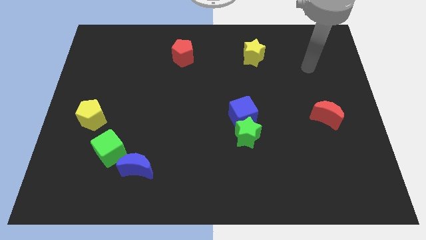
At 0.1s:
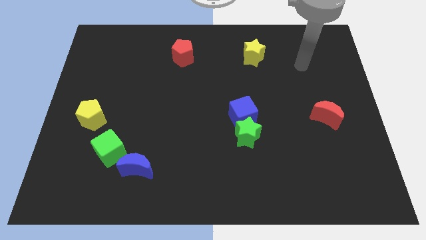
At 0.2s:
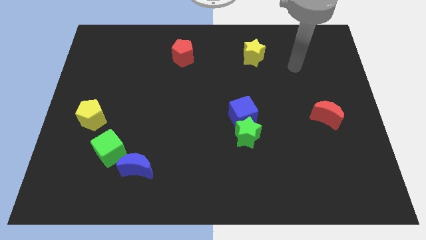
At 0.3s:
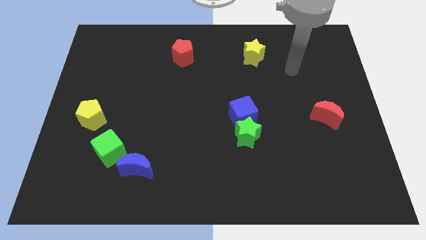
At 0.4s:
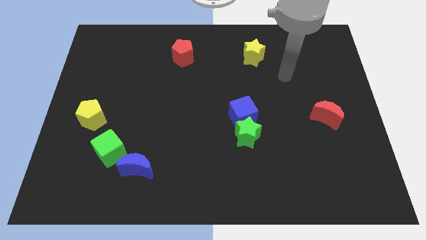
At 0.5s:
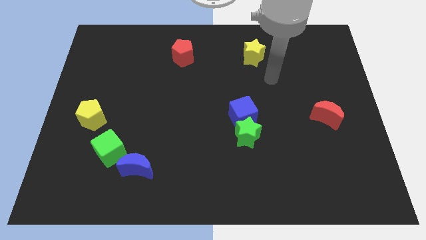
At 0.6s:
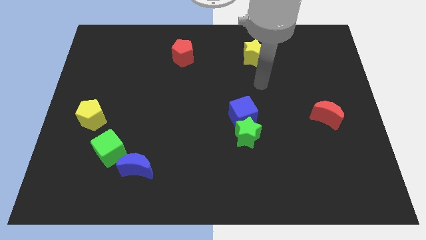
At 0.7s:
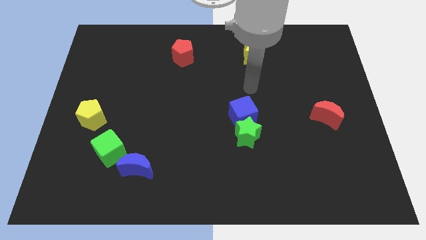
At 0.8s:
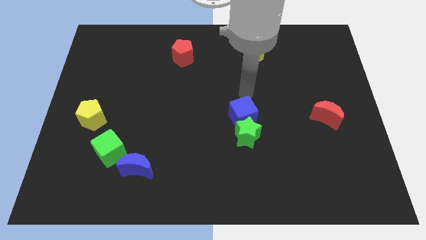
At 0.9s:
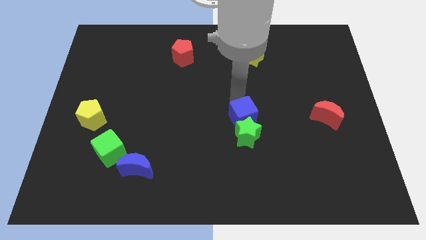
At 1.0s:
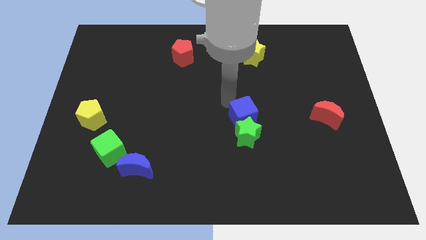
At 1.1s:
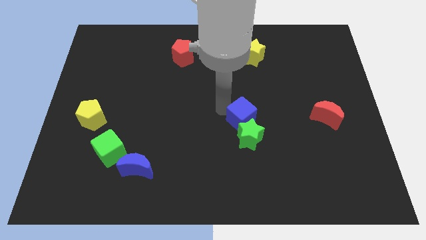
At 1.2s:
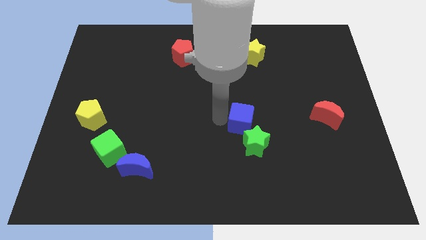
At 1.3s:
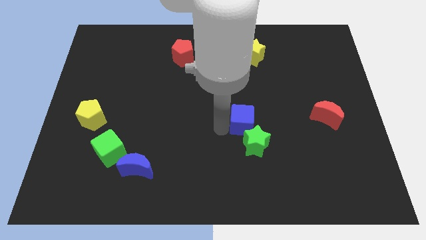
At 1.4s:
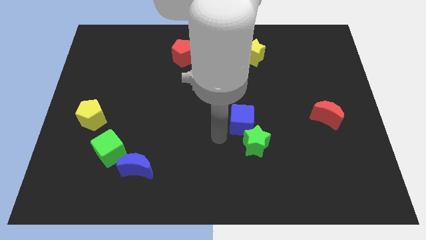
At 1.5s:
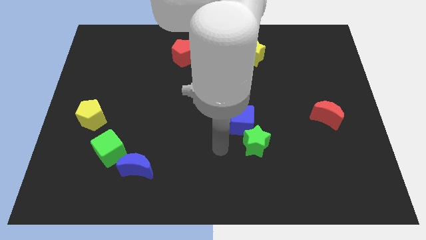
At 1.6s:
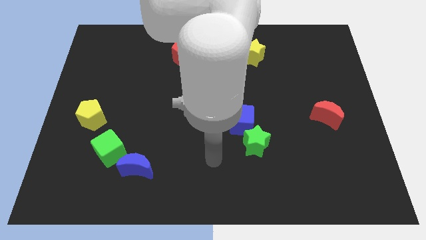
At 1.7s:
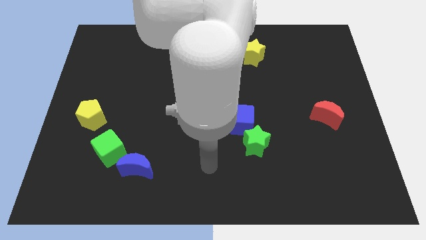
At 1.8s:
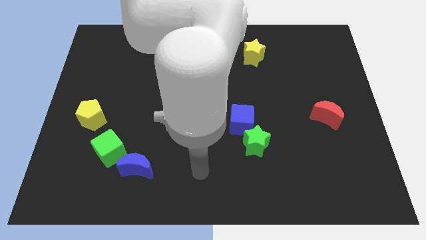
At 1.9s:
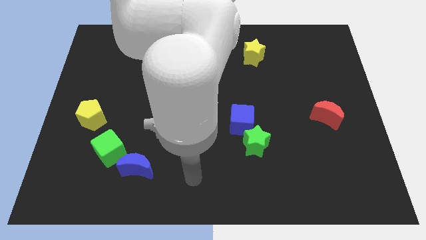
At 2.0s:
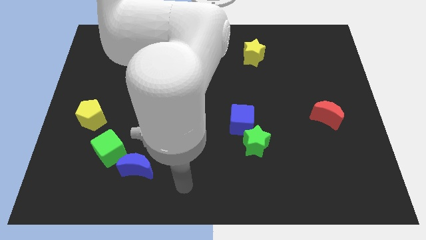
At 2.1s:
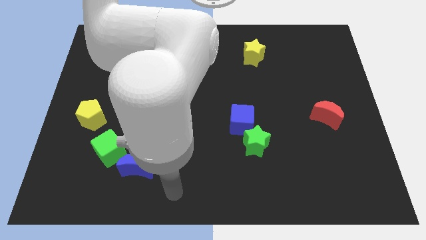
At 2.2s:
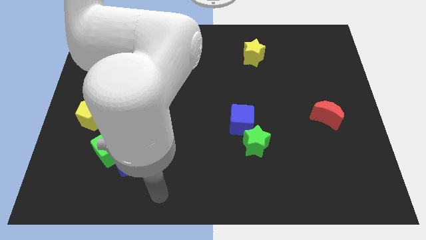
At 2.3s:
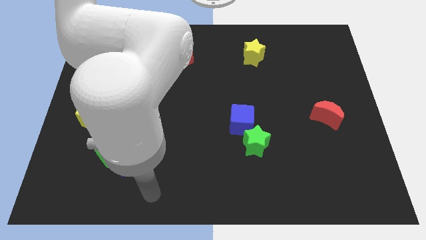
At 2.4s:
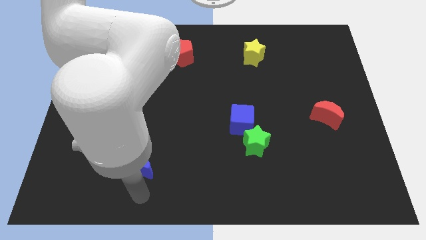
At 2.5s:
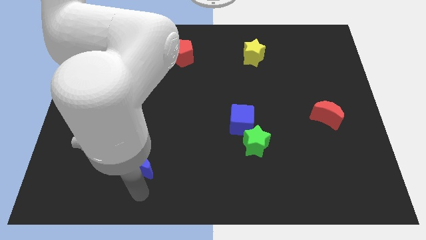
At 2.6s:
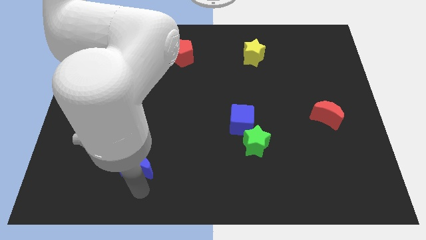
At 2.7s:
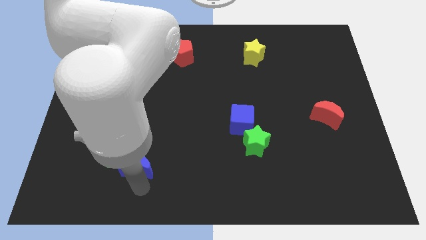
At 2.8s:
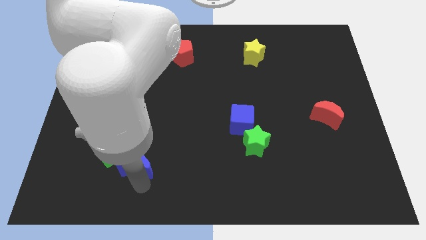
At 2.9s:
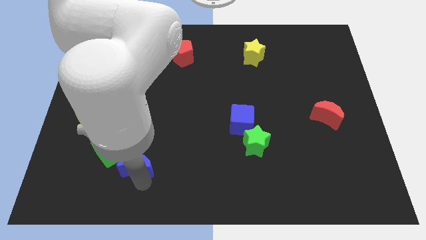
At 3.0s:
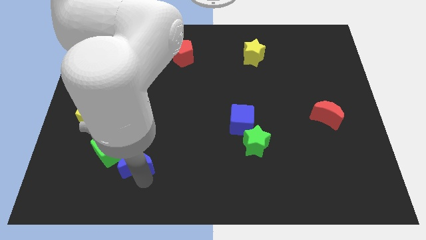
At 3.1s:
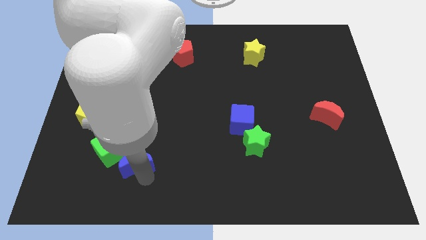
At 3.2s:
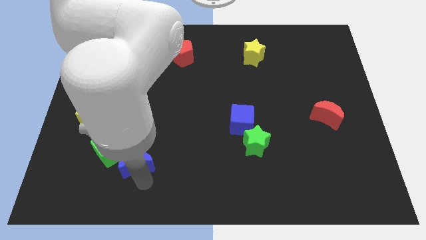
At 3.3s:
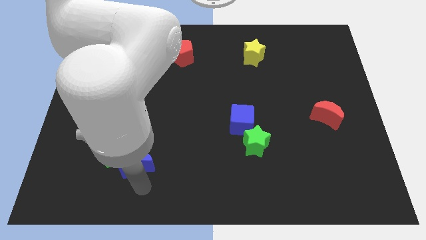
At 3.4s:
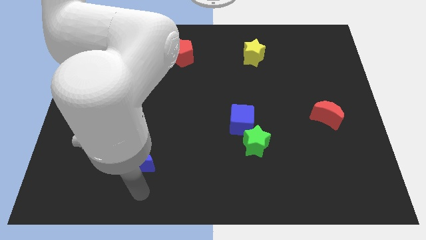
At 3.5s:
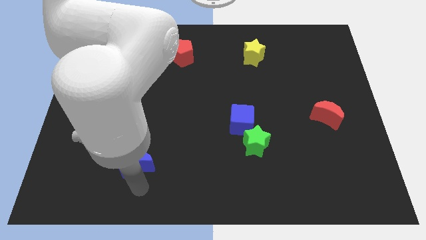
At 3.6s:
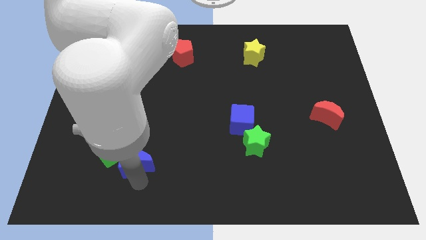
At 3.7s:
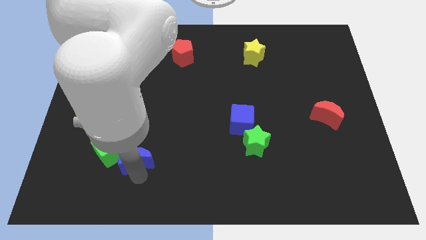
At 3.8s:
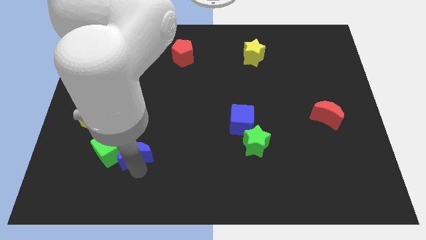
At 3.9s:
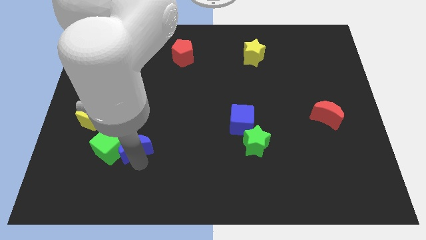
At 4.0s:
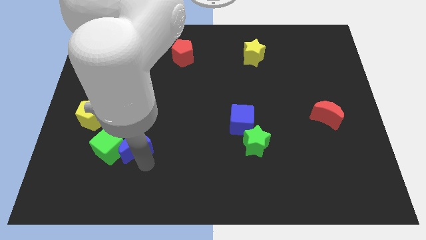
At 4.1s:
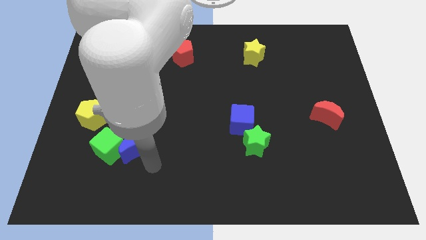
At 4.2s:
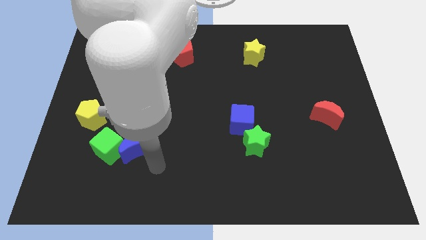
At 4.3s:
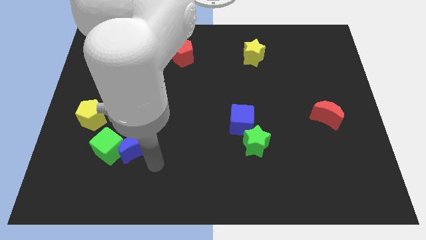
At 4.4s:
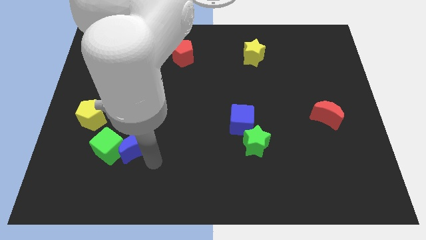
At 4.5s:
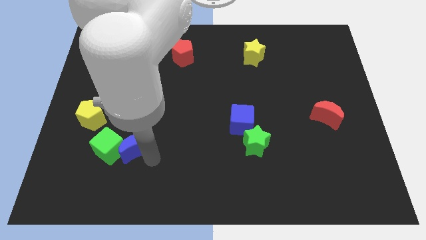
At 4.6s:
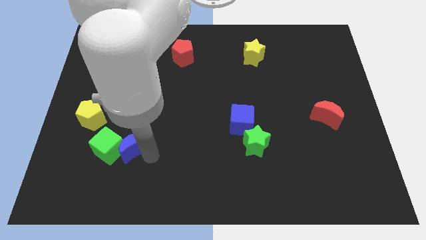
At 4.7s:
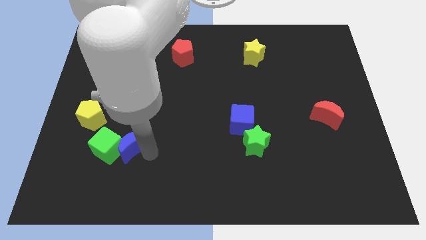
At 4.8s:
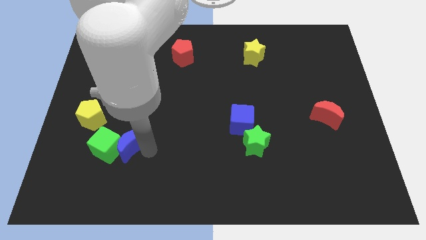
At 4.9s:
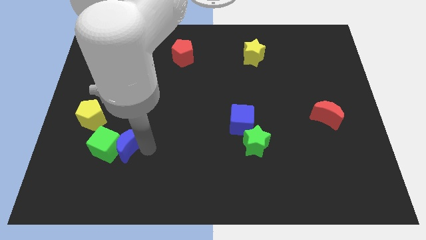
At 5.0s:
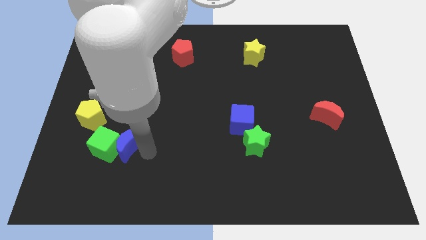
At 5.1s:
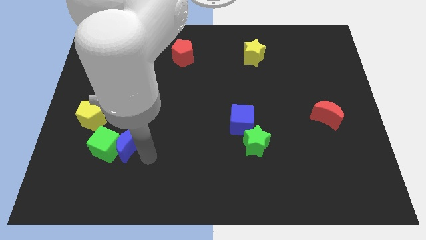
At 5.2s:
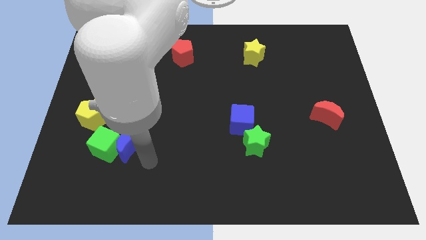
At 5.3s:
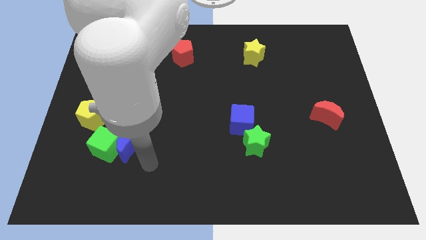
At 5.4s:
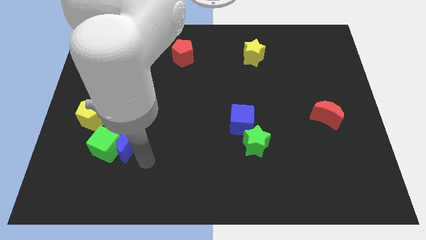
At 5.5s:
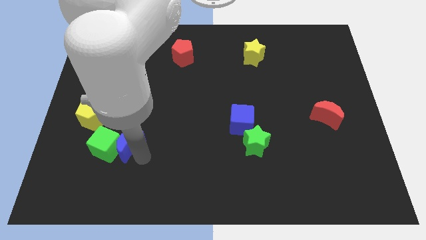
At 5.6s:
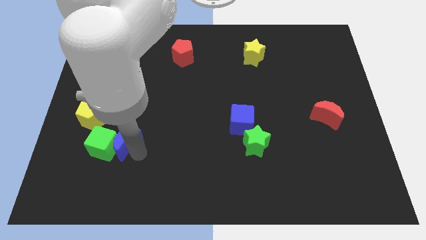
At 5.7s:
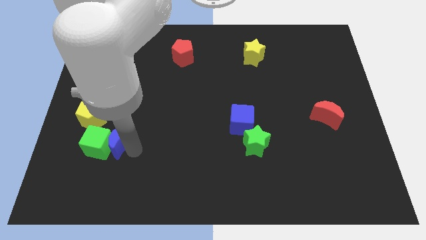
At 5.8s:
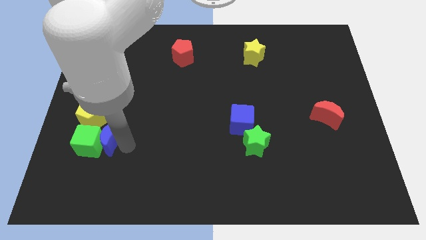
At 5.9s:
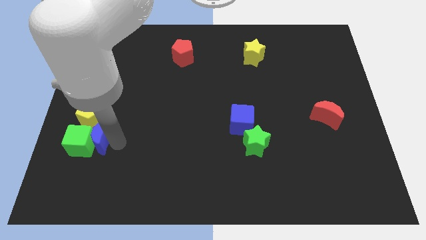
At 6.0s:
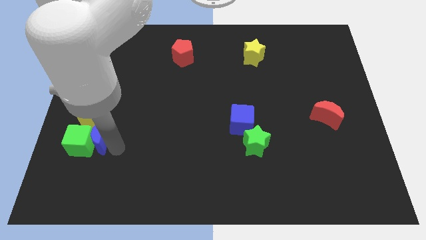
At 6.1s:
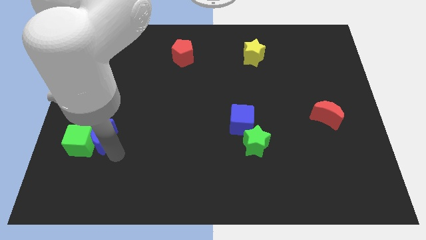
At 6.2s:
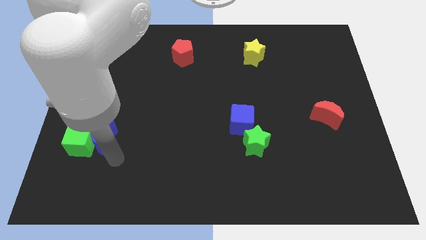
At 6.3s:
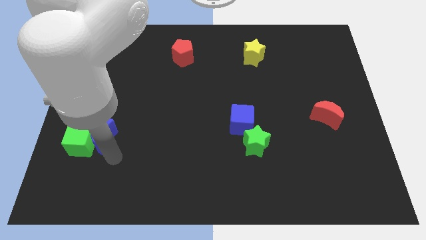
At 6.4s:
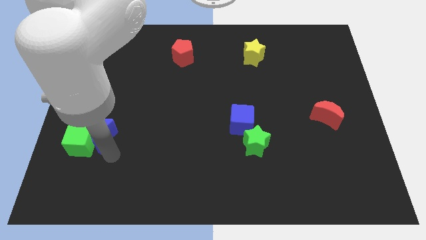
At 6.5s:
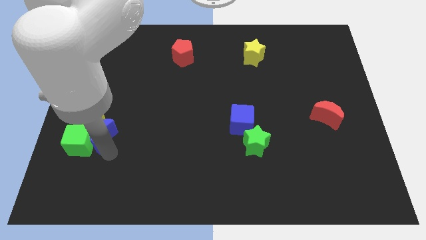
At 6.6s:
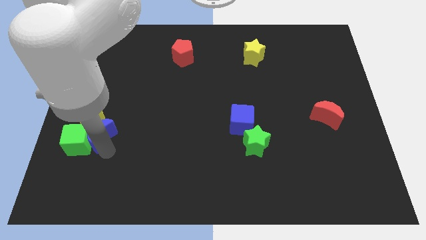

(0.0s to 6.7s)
move the blue moon to the yellow pentagon

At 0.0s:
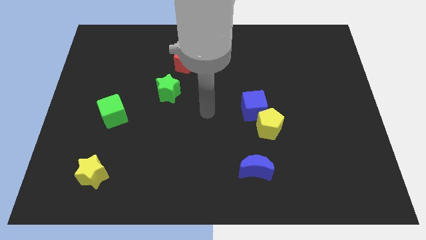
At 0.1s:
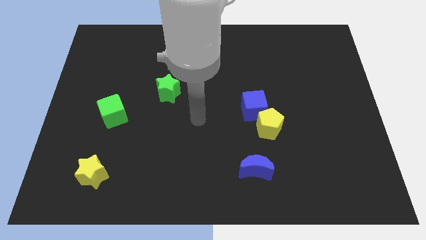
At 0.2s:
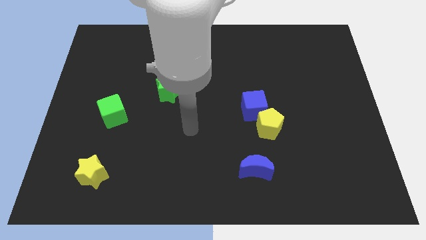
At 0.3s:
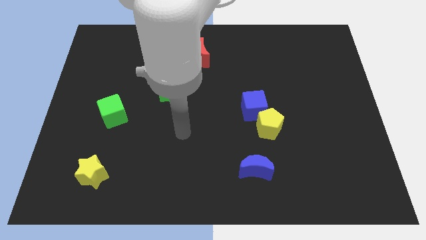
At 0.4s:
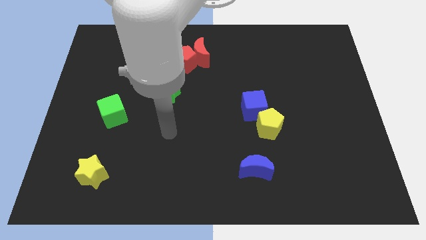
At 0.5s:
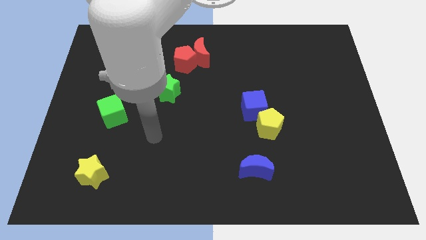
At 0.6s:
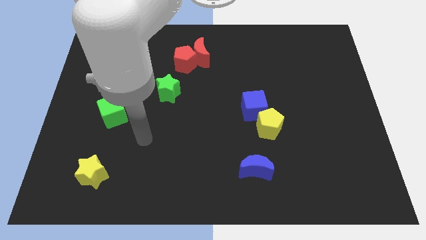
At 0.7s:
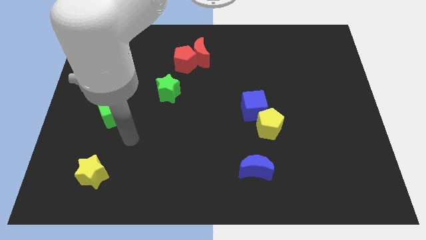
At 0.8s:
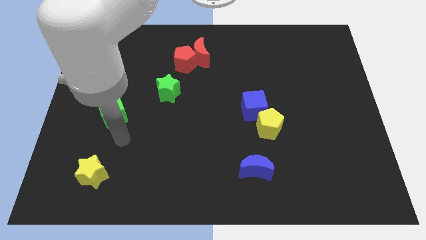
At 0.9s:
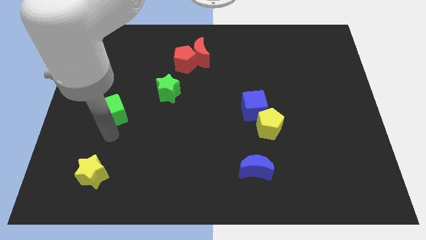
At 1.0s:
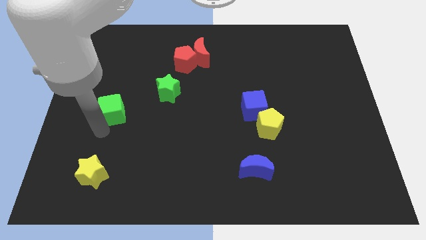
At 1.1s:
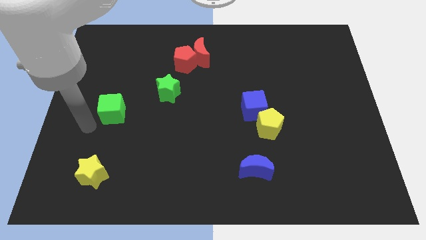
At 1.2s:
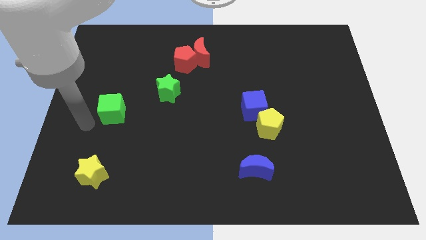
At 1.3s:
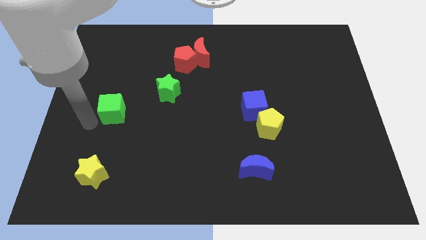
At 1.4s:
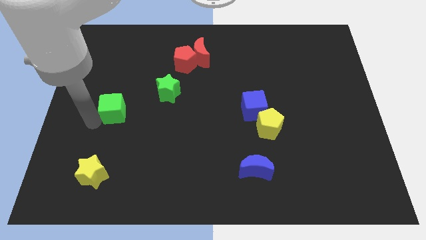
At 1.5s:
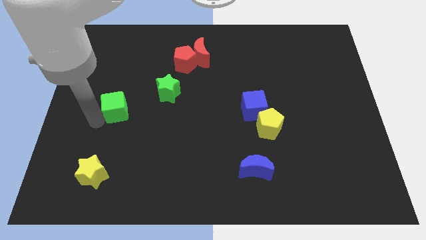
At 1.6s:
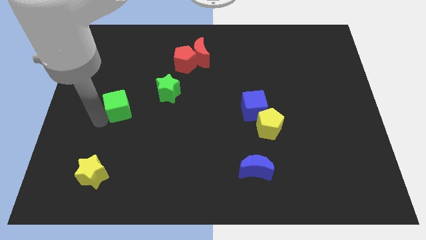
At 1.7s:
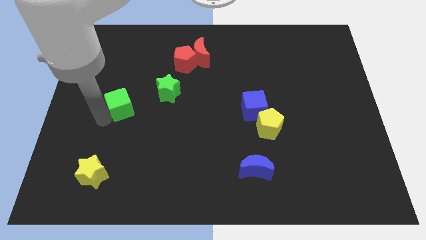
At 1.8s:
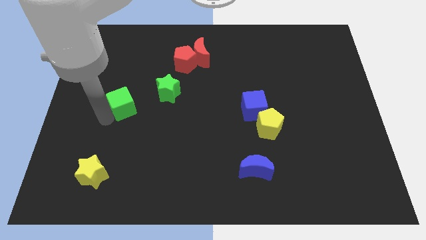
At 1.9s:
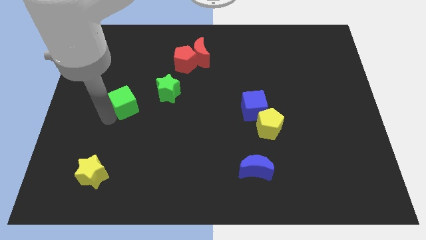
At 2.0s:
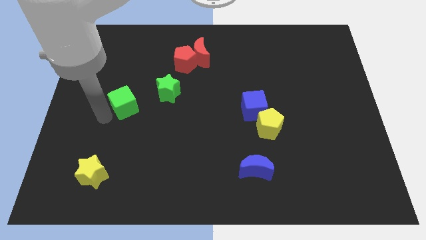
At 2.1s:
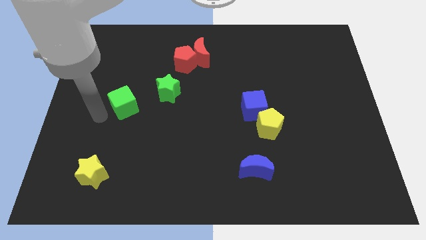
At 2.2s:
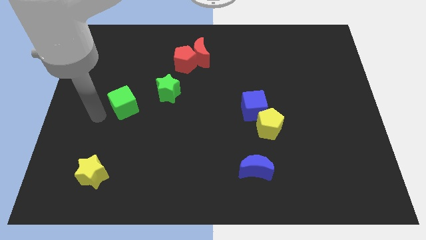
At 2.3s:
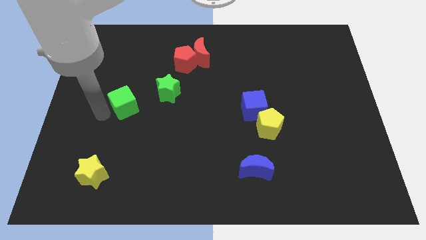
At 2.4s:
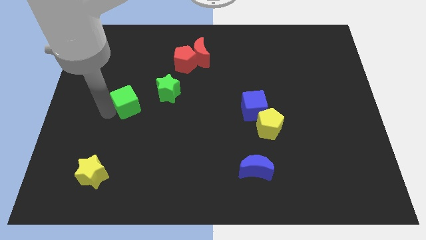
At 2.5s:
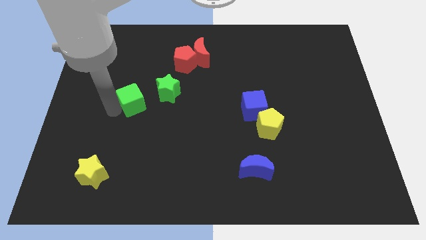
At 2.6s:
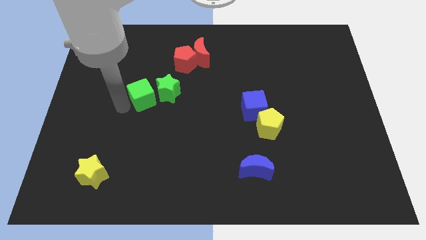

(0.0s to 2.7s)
push the green cube next to the green star
